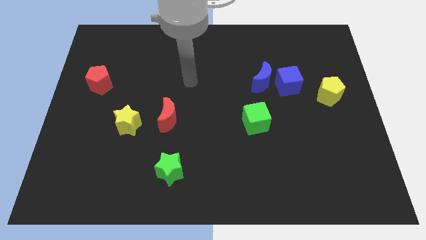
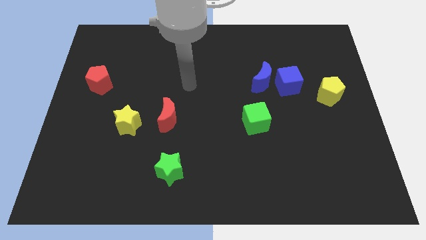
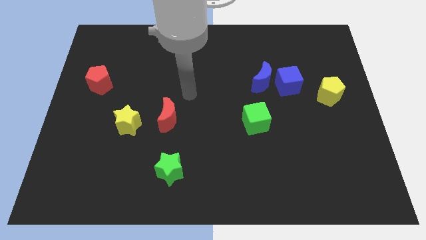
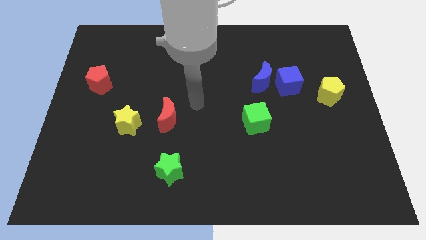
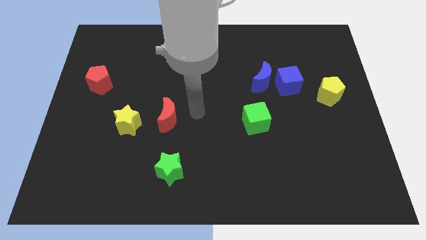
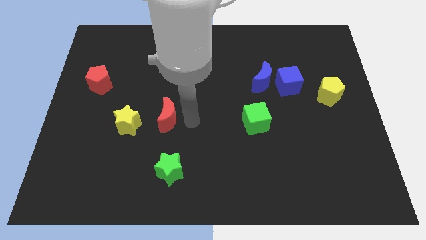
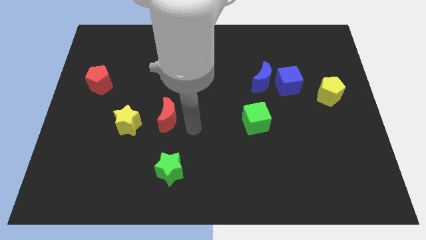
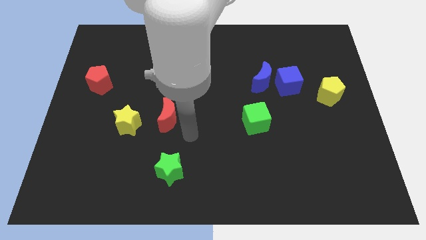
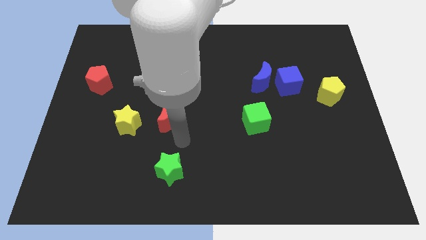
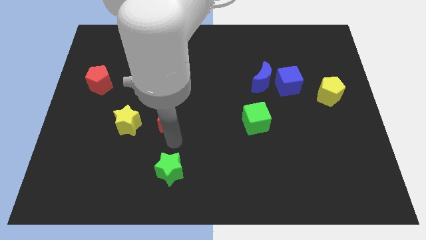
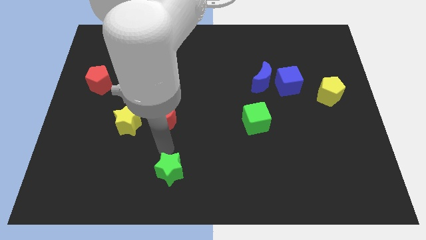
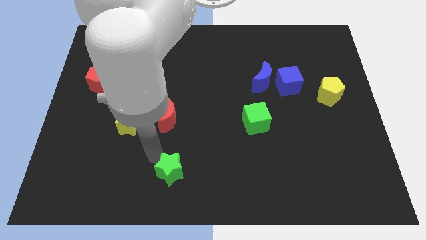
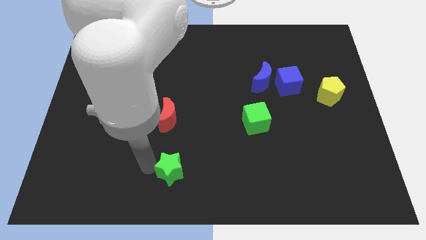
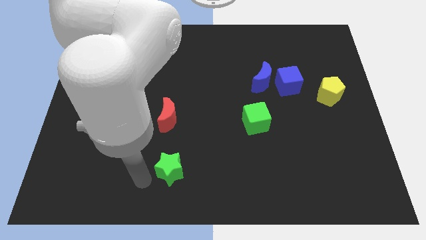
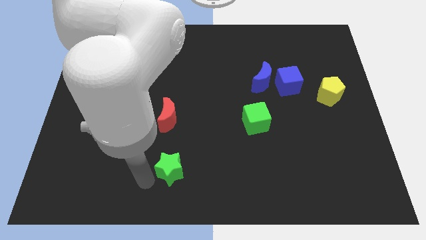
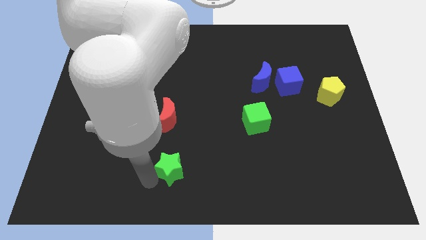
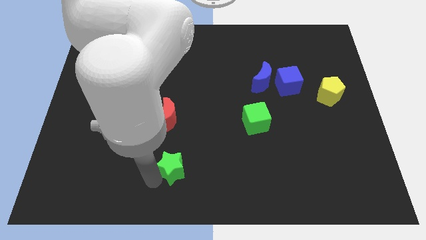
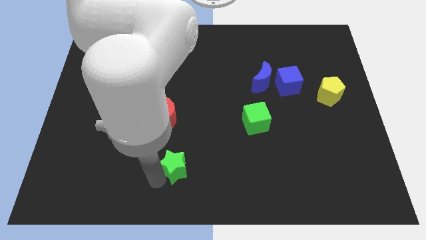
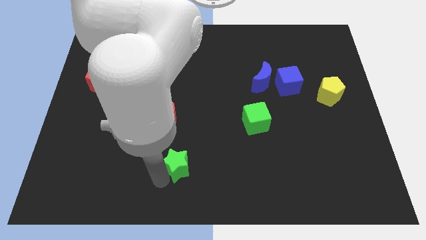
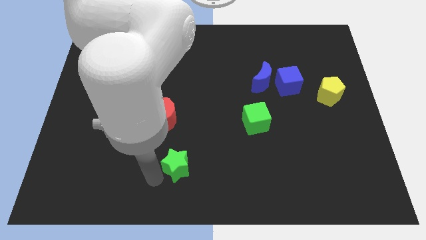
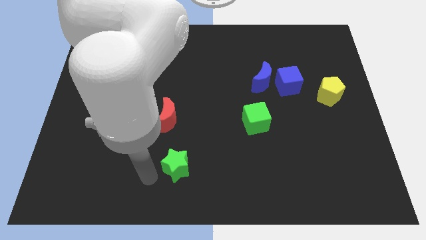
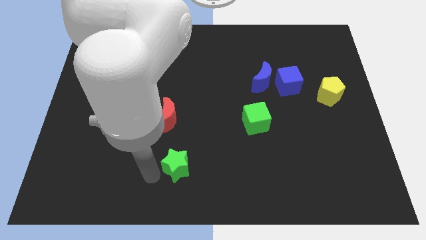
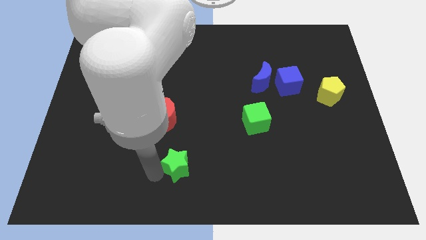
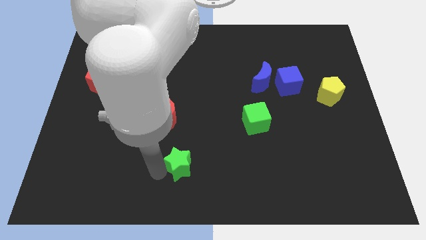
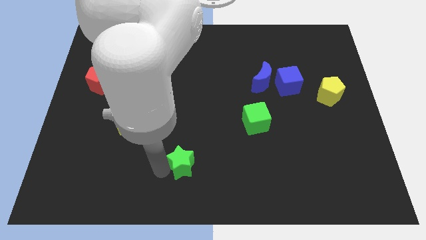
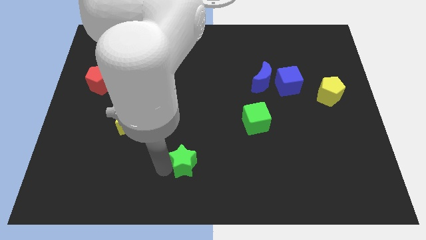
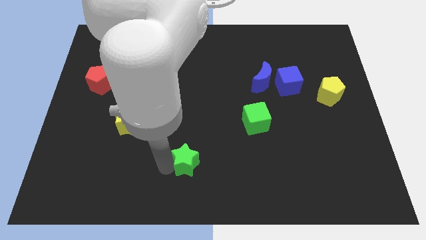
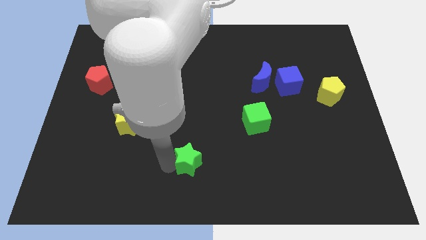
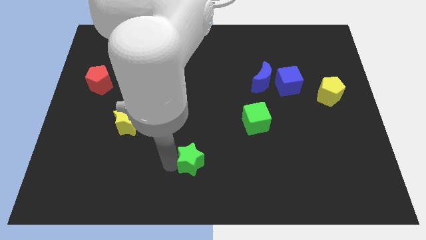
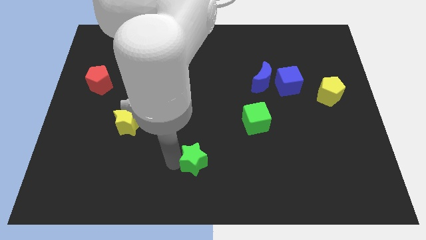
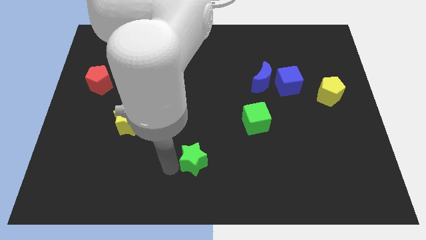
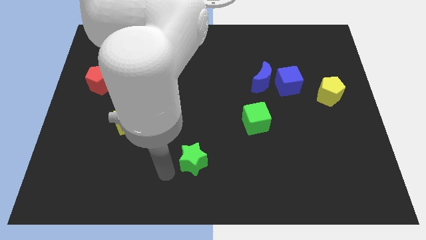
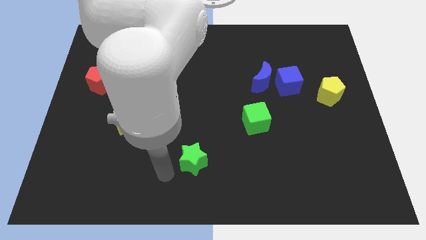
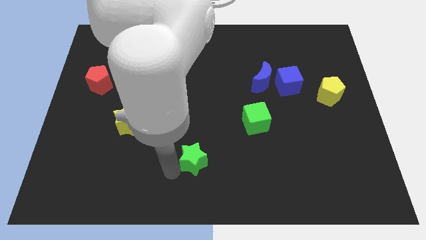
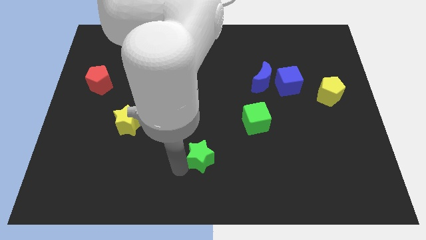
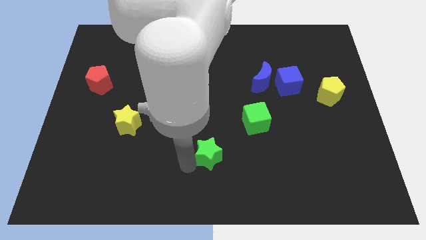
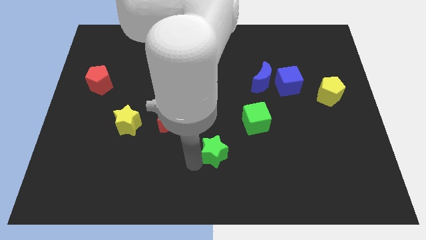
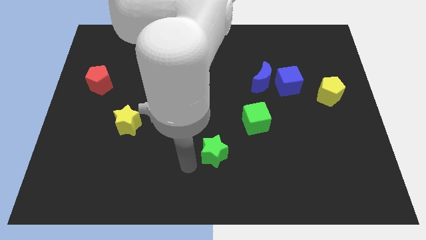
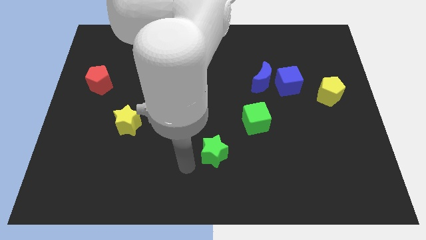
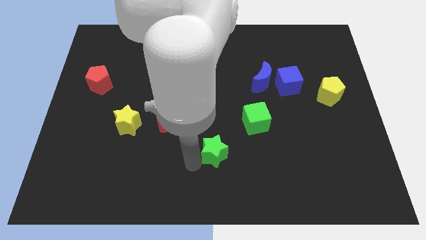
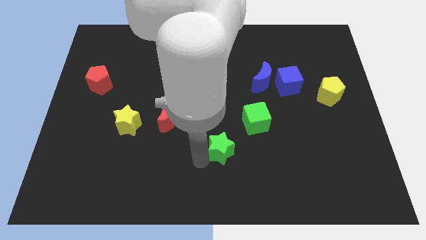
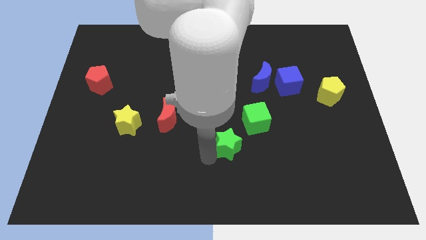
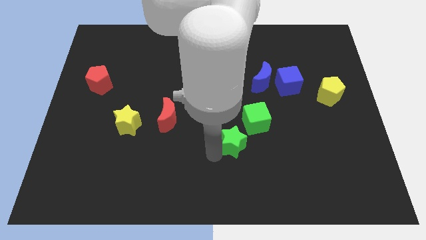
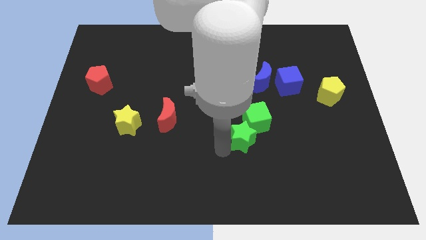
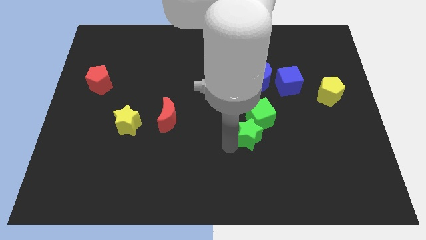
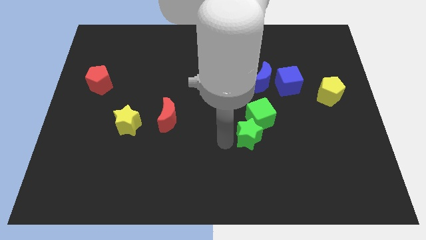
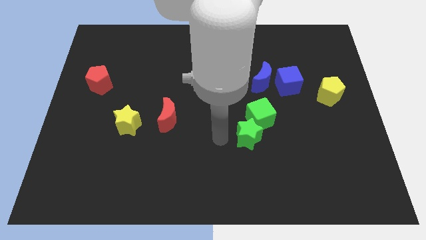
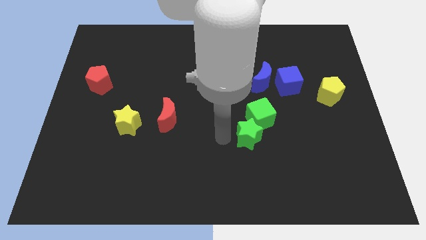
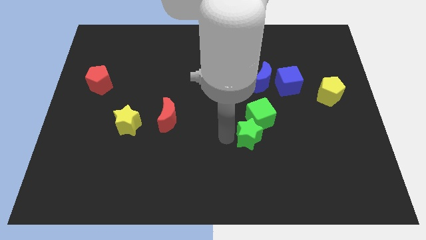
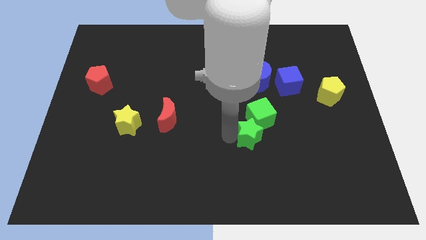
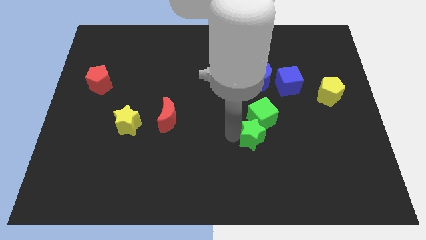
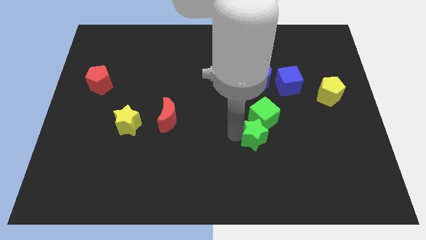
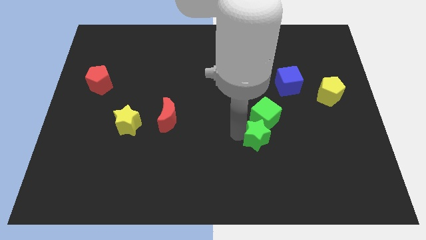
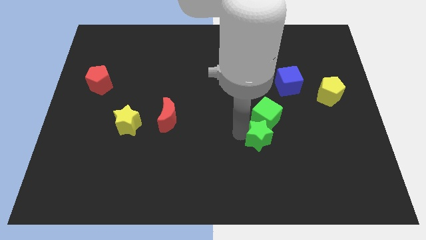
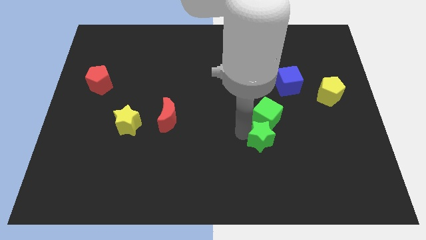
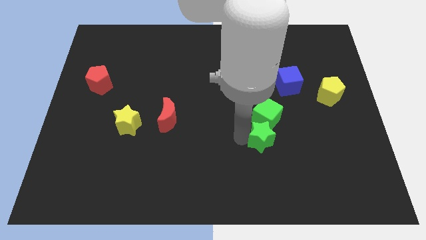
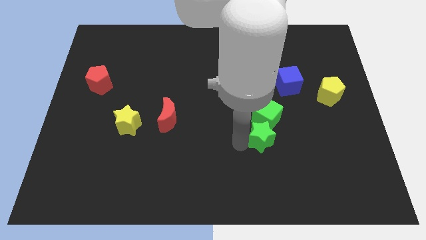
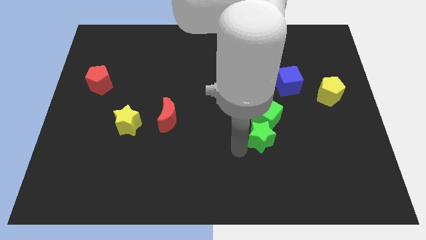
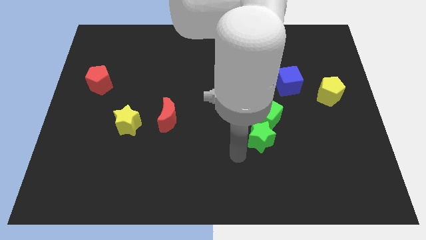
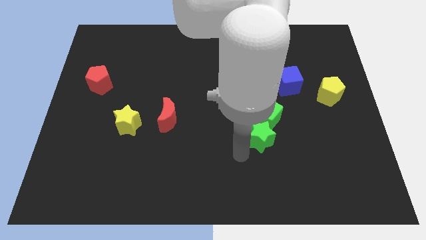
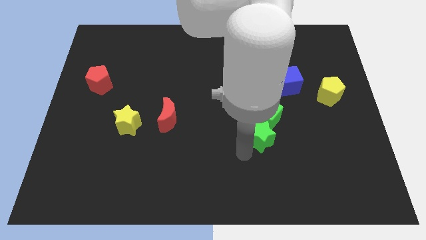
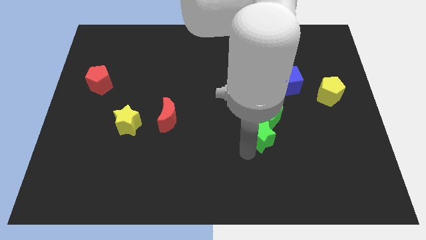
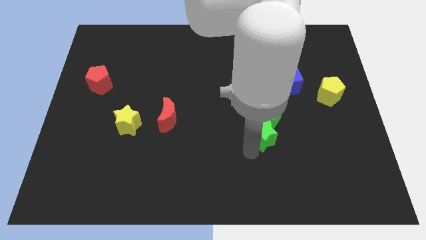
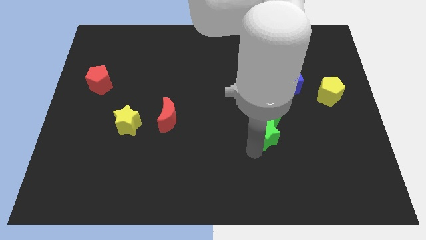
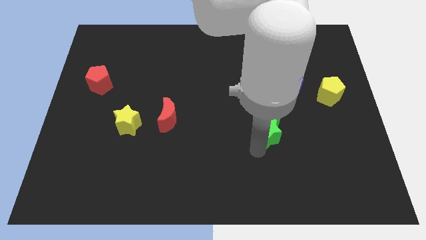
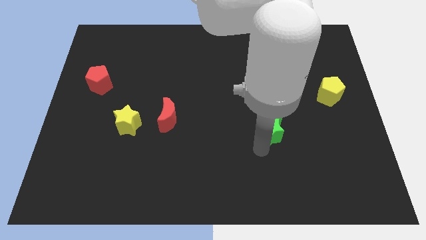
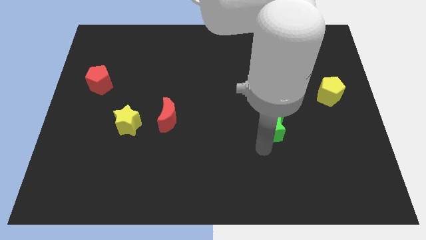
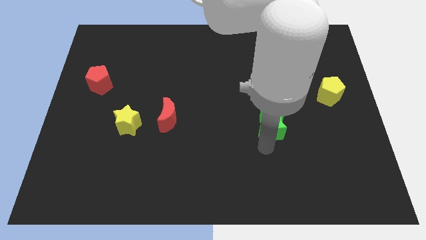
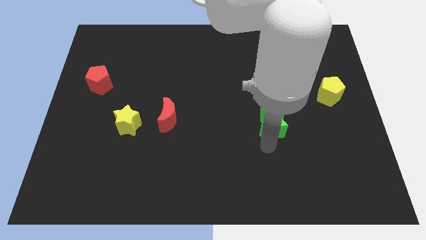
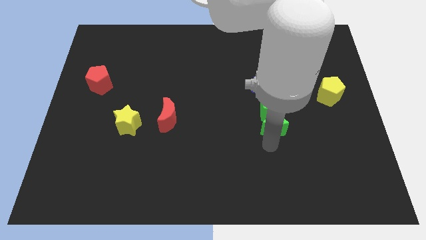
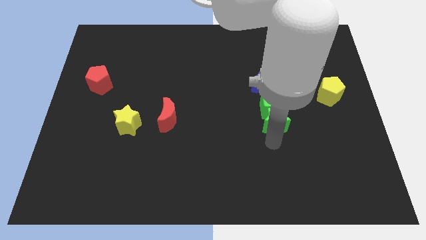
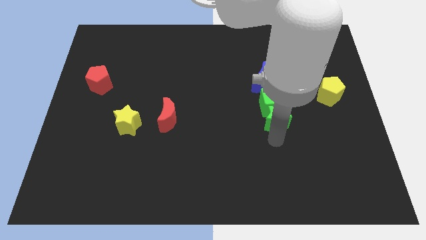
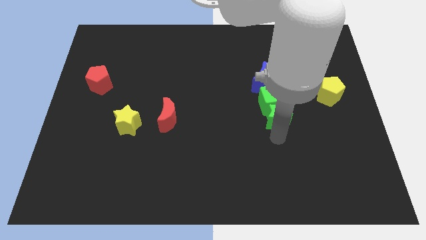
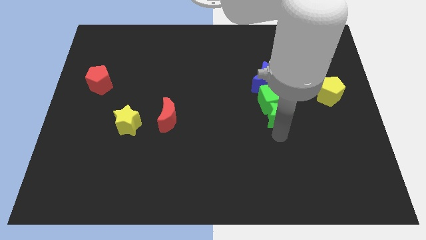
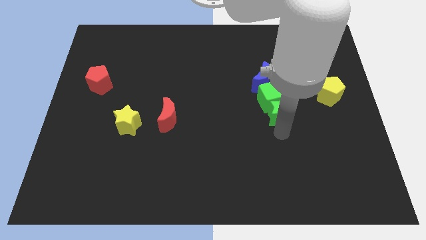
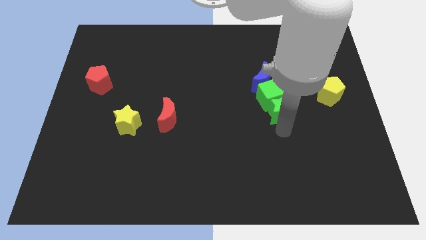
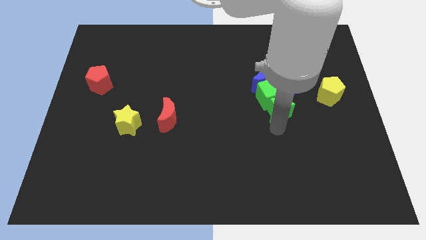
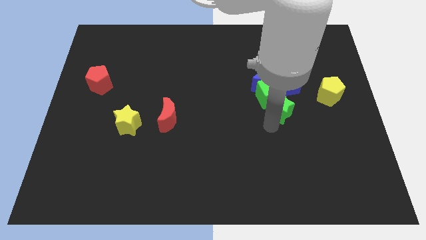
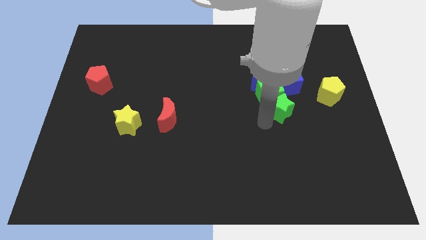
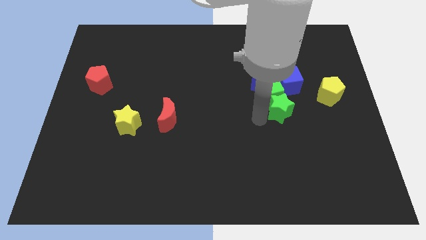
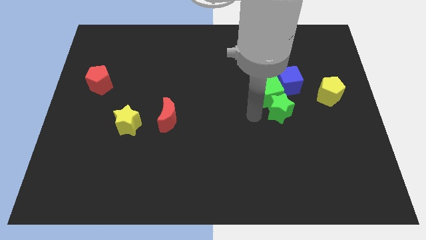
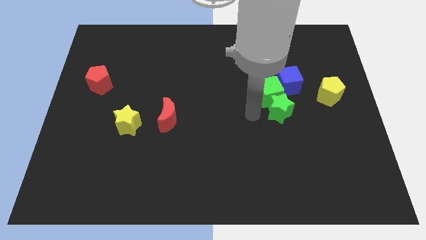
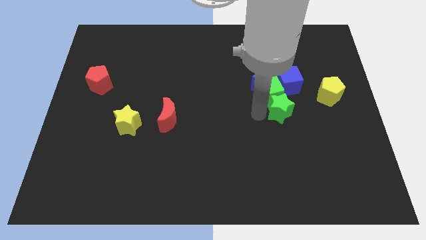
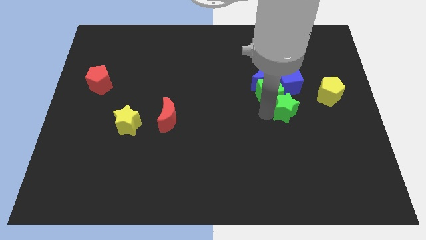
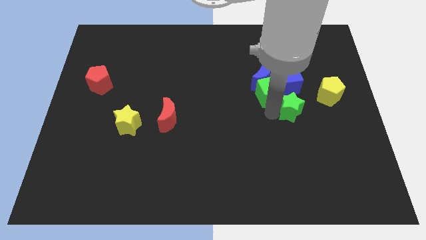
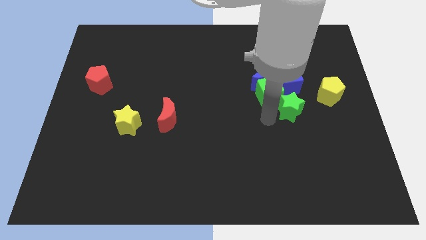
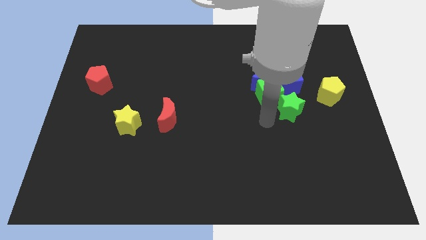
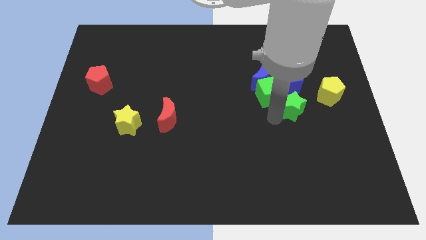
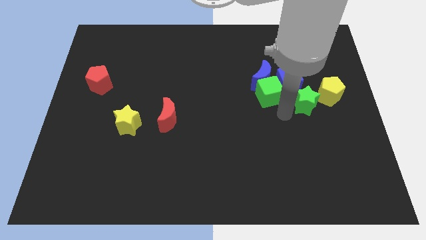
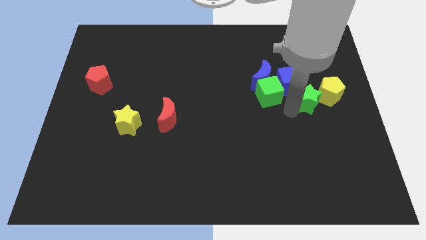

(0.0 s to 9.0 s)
push the green star next to the yellow pentagon
